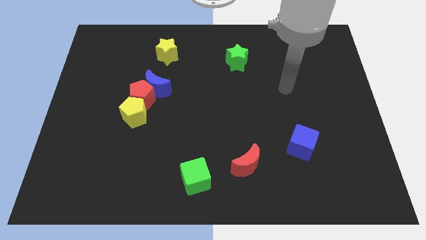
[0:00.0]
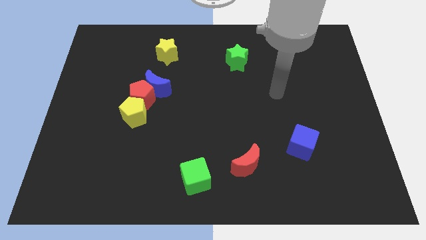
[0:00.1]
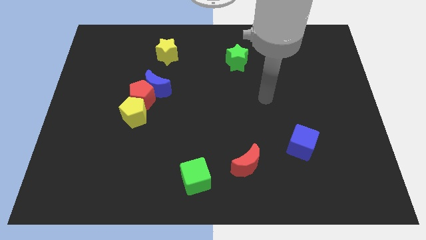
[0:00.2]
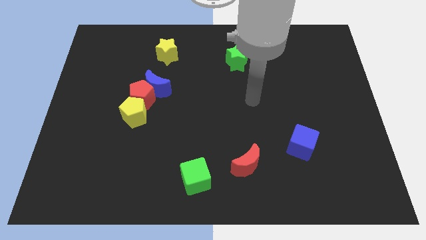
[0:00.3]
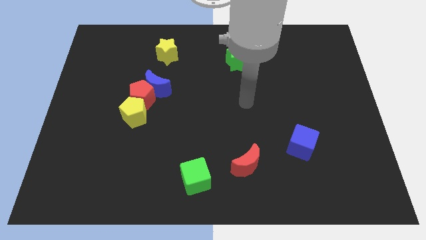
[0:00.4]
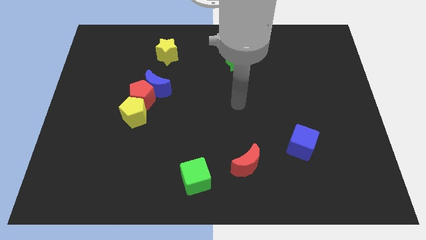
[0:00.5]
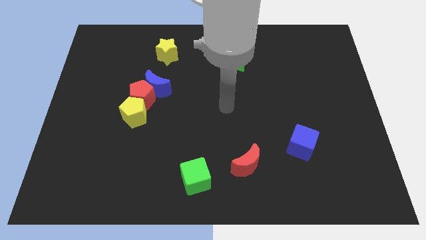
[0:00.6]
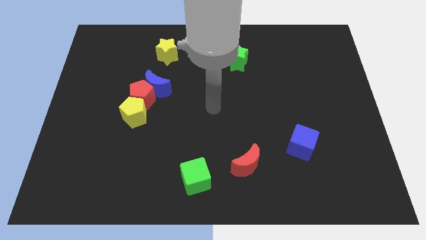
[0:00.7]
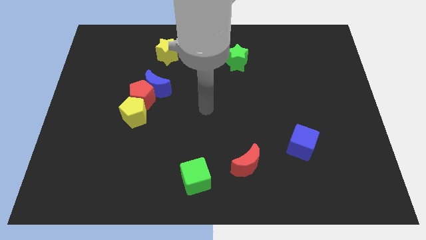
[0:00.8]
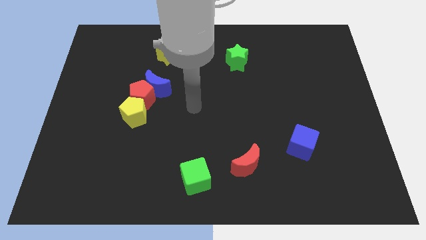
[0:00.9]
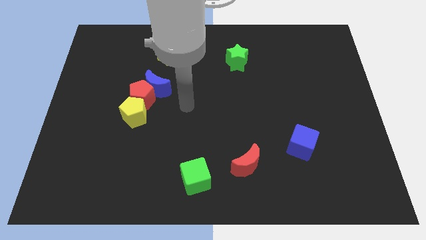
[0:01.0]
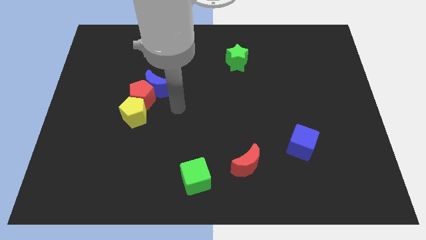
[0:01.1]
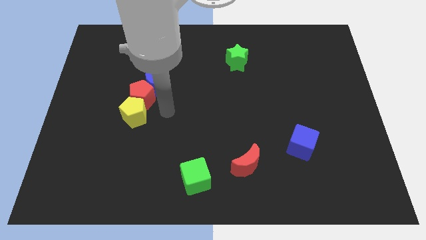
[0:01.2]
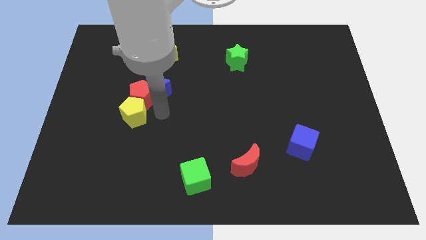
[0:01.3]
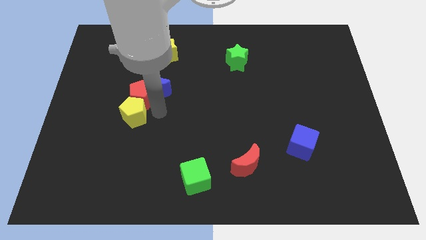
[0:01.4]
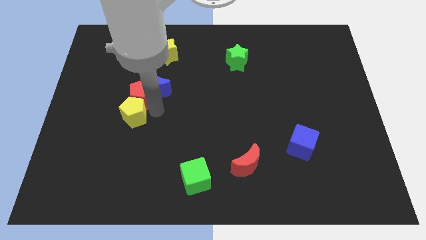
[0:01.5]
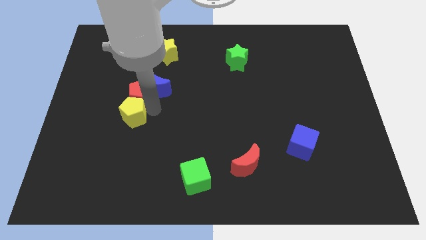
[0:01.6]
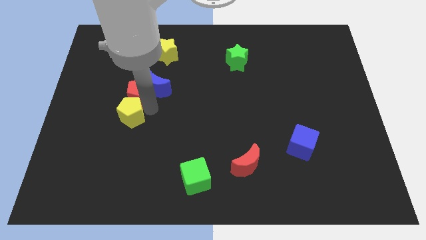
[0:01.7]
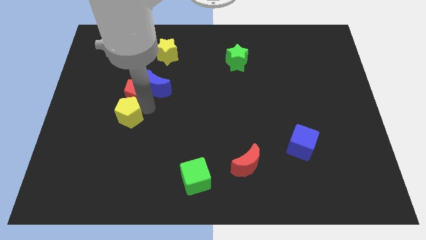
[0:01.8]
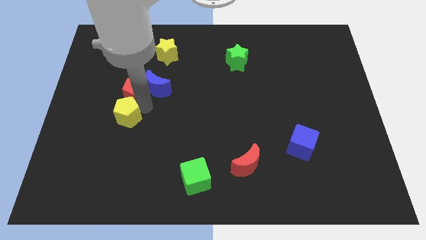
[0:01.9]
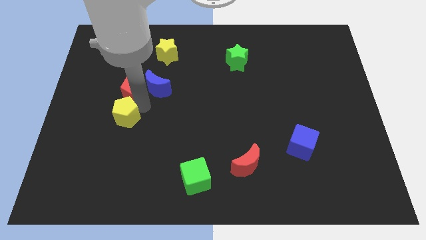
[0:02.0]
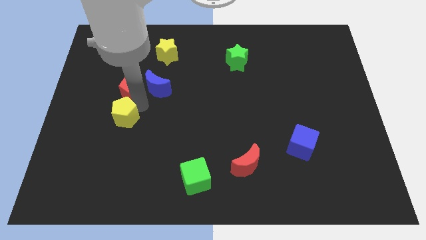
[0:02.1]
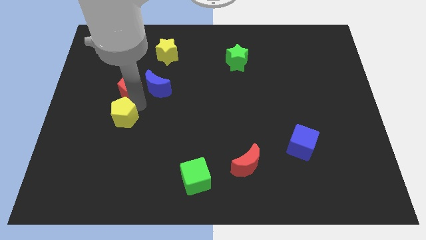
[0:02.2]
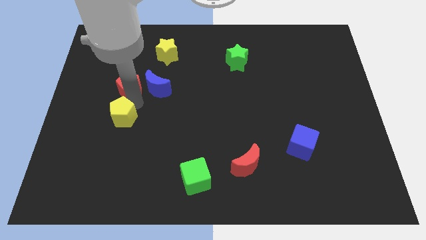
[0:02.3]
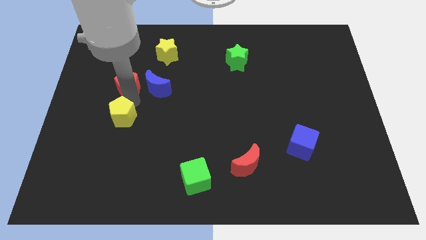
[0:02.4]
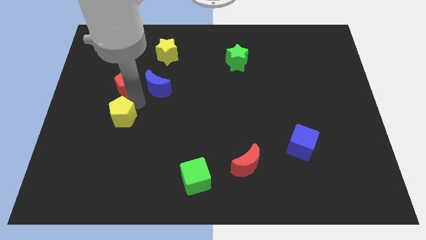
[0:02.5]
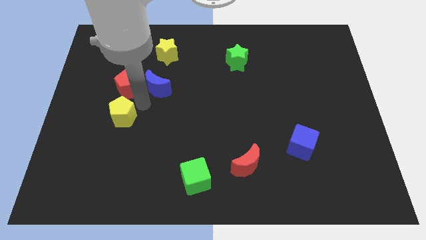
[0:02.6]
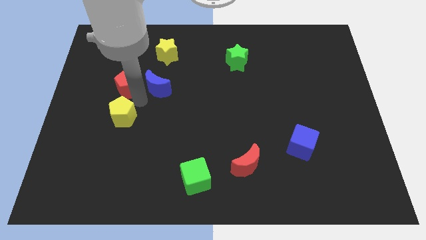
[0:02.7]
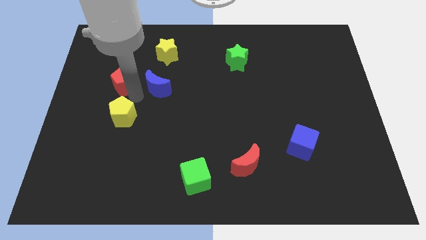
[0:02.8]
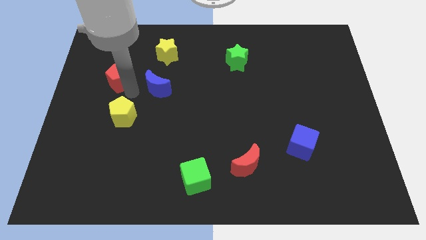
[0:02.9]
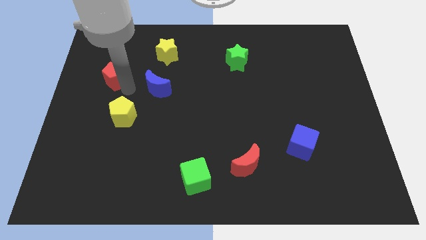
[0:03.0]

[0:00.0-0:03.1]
move the red pentagon away from the blue moon and yellow pentagon

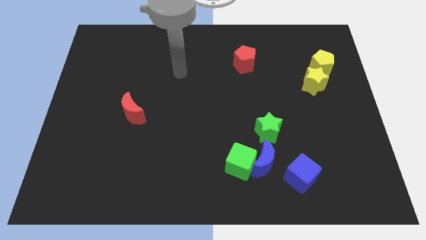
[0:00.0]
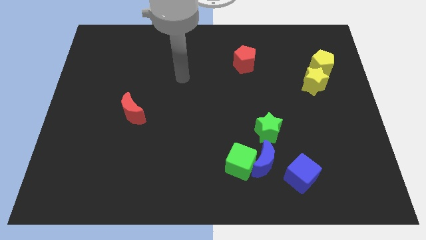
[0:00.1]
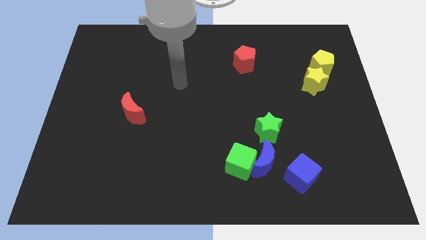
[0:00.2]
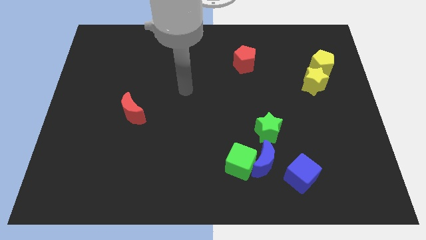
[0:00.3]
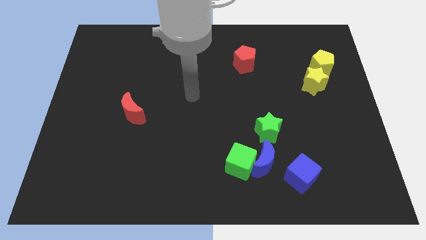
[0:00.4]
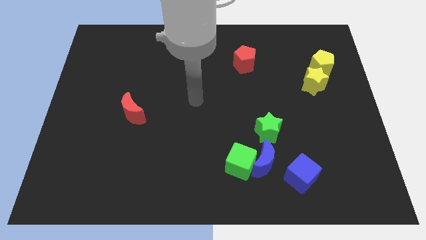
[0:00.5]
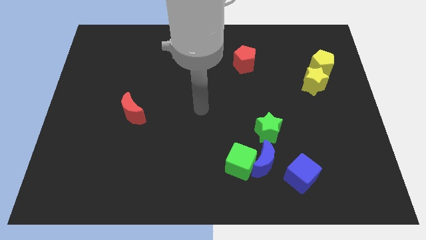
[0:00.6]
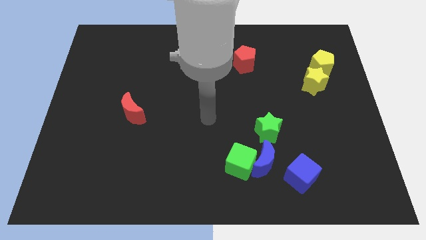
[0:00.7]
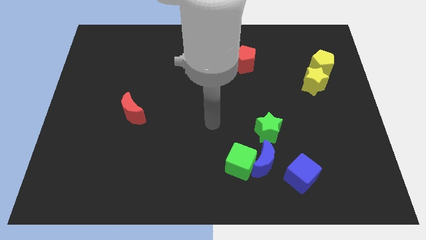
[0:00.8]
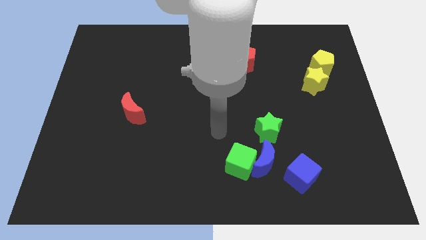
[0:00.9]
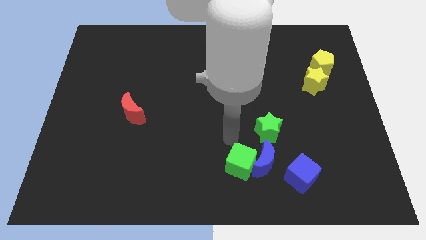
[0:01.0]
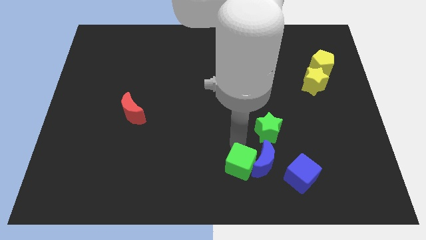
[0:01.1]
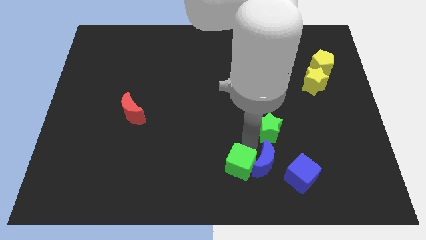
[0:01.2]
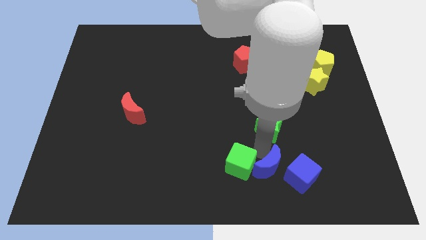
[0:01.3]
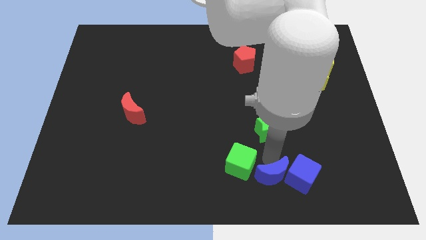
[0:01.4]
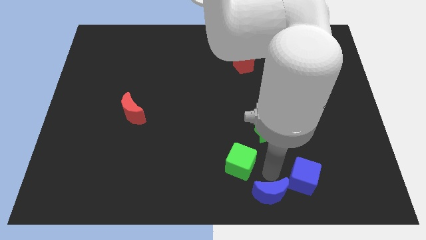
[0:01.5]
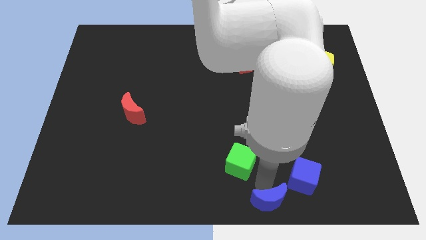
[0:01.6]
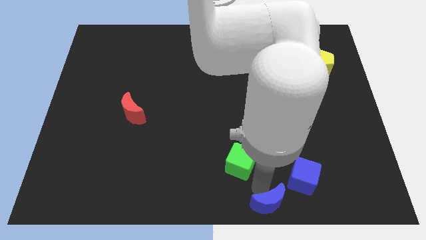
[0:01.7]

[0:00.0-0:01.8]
separate the green cube from the blue moon

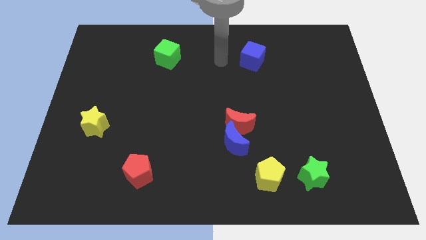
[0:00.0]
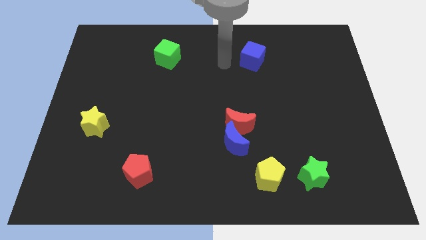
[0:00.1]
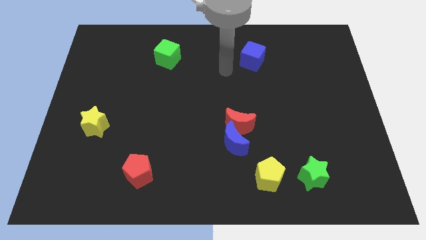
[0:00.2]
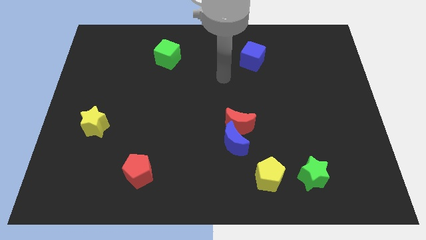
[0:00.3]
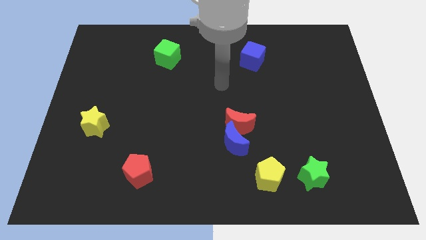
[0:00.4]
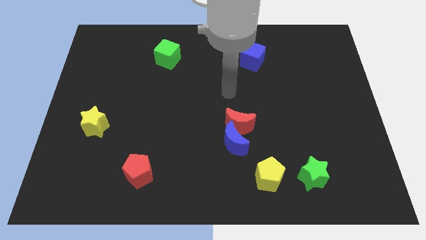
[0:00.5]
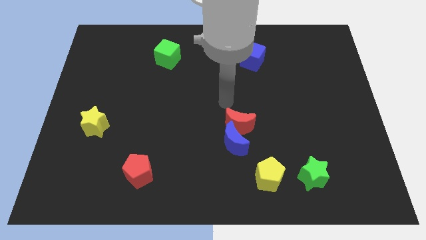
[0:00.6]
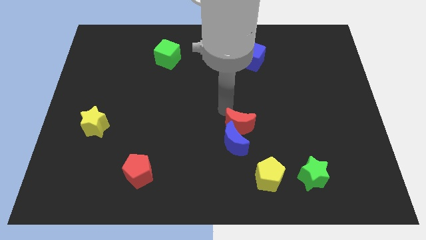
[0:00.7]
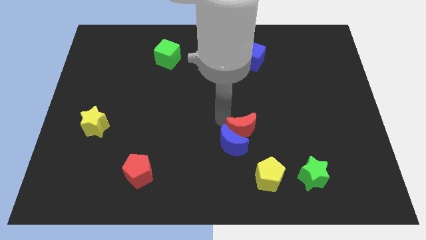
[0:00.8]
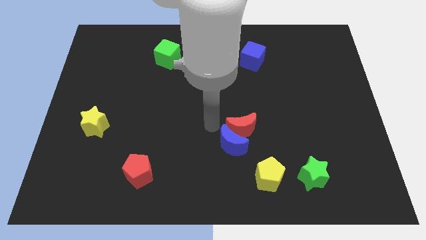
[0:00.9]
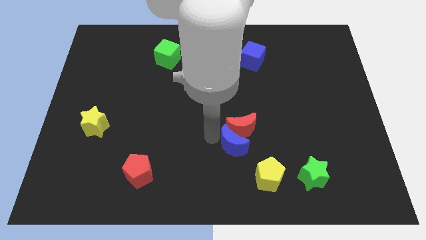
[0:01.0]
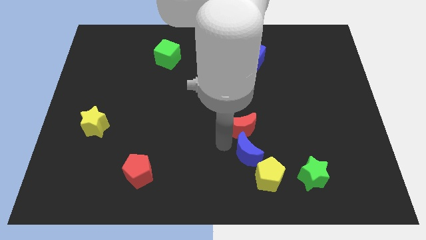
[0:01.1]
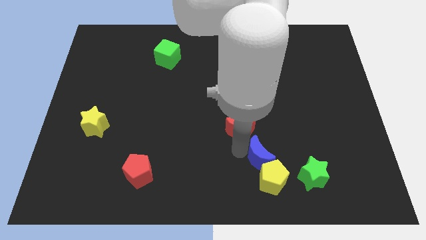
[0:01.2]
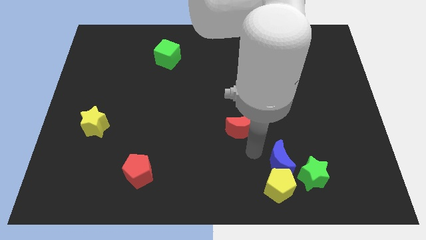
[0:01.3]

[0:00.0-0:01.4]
pull the red moon apart from the blue moon

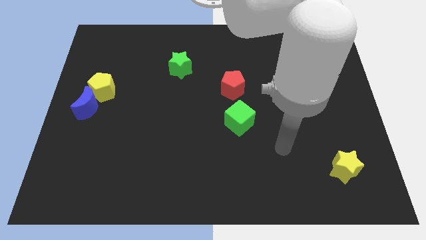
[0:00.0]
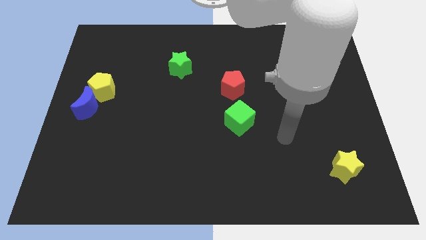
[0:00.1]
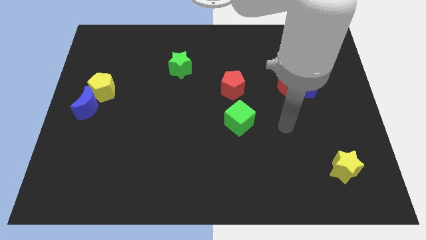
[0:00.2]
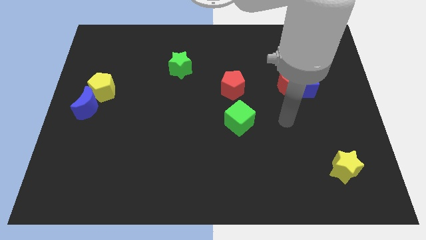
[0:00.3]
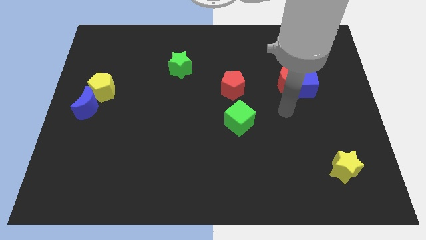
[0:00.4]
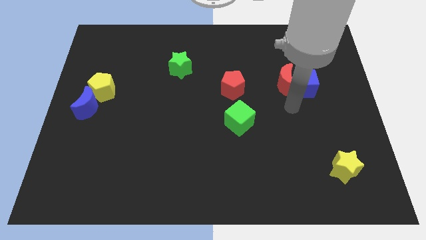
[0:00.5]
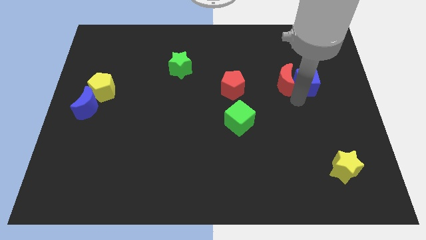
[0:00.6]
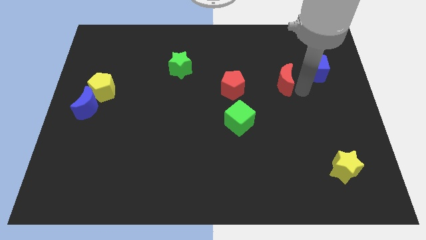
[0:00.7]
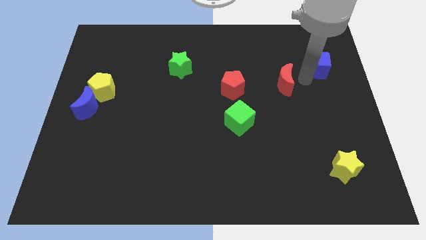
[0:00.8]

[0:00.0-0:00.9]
separate the red moon from the blue cube

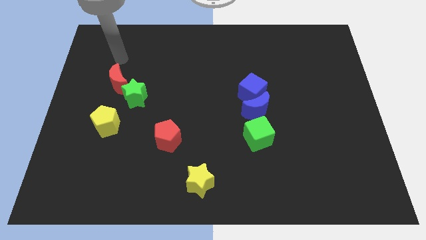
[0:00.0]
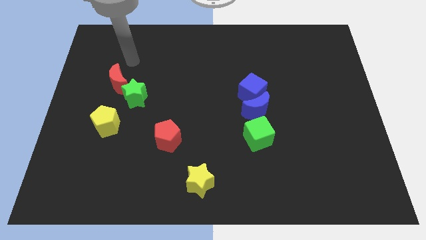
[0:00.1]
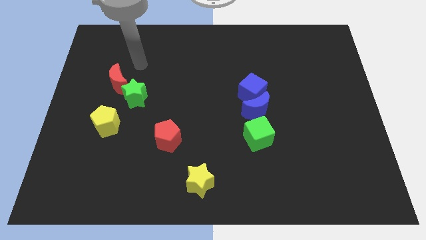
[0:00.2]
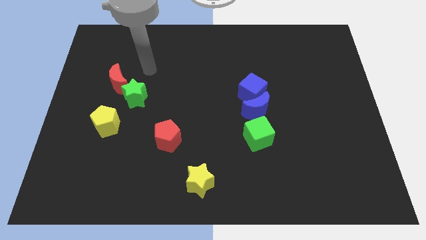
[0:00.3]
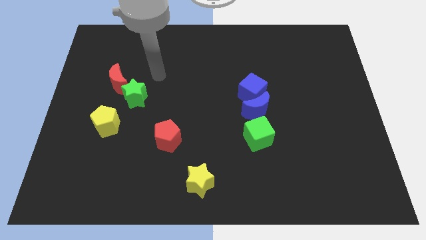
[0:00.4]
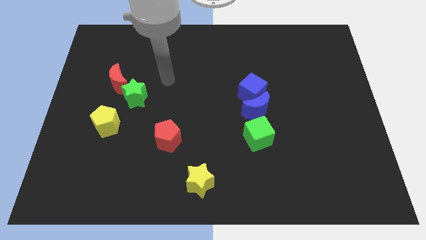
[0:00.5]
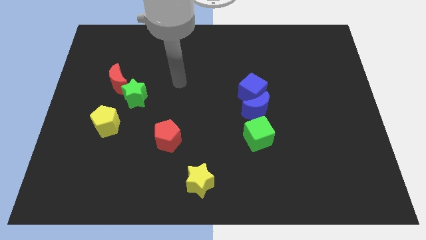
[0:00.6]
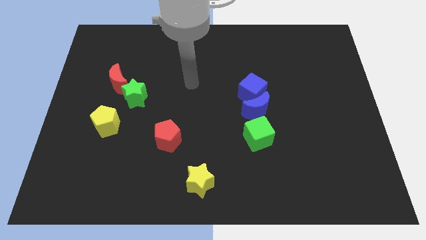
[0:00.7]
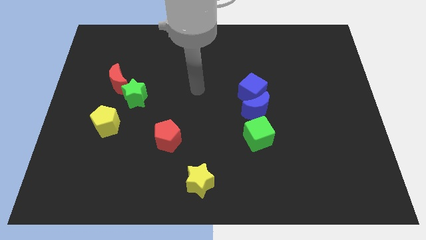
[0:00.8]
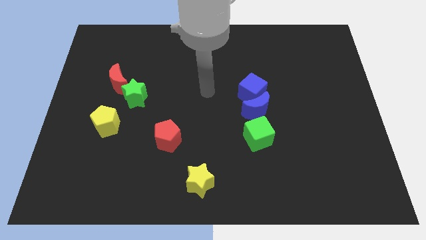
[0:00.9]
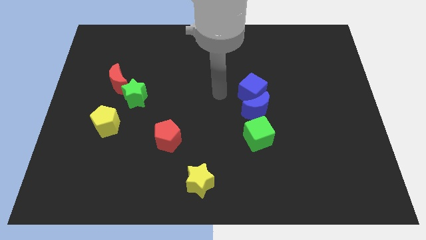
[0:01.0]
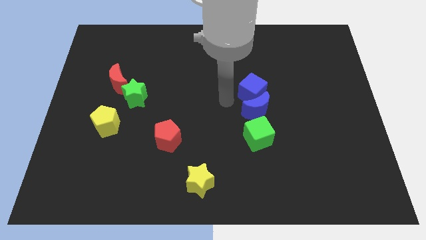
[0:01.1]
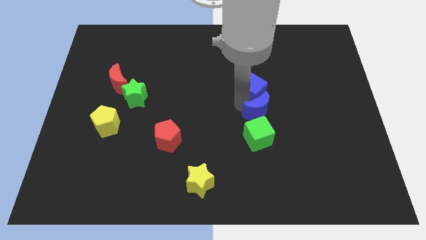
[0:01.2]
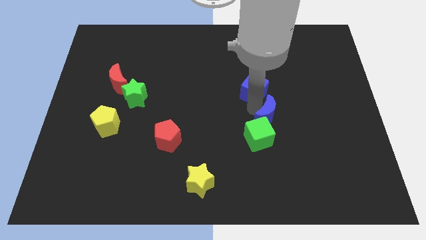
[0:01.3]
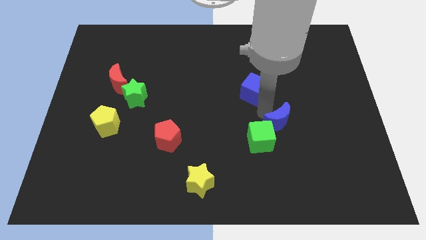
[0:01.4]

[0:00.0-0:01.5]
move the blue cube away from the blue moon

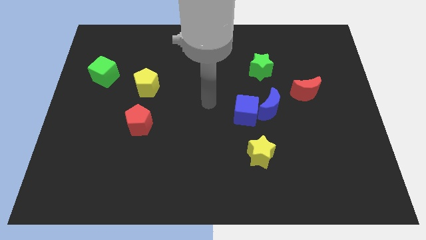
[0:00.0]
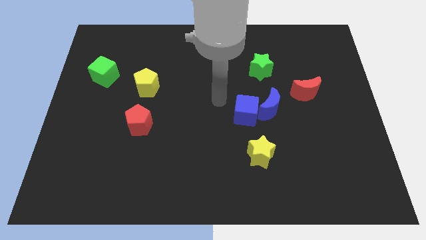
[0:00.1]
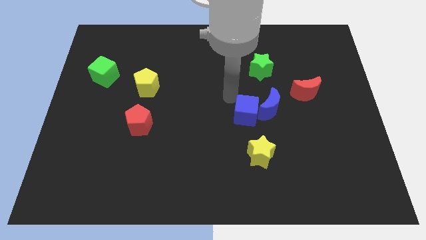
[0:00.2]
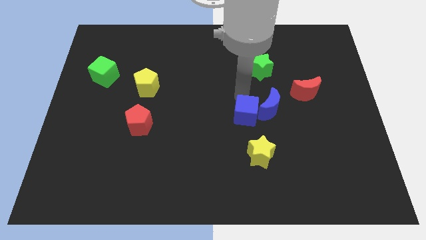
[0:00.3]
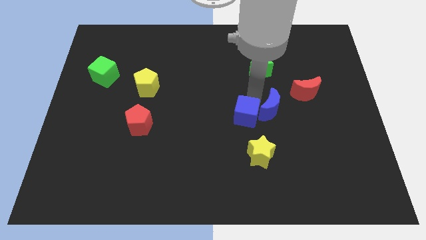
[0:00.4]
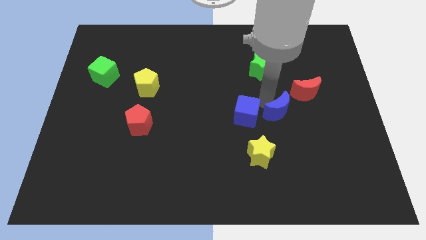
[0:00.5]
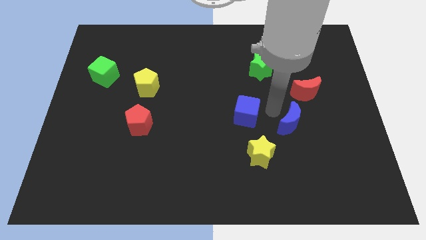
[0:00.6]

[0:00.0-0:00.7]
separate the blue cube from the blue moon
